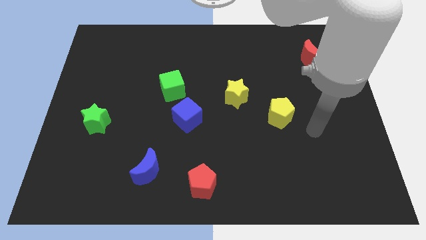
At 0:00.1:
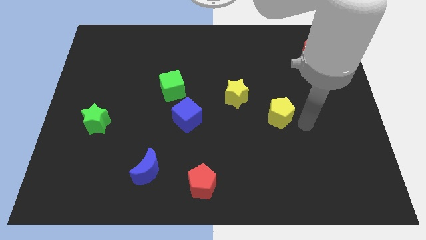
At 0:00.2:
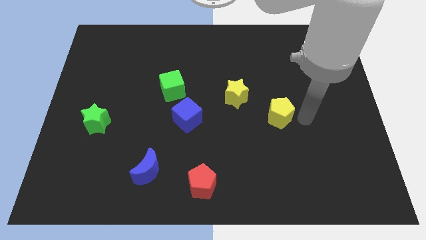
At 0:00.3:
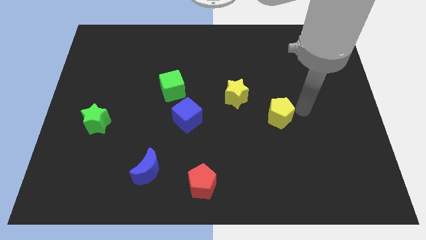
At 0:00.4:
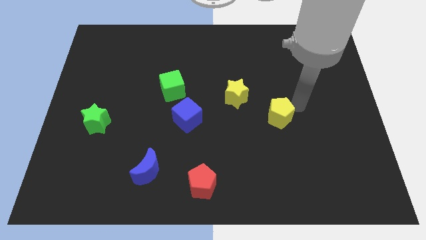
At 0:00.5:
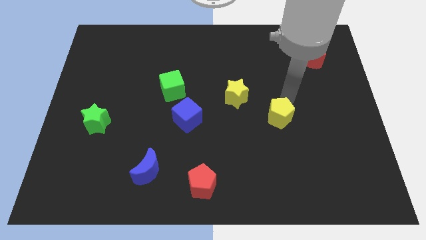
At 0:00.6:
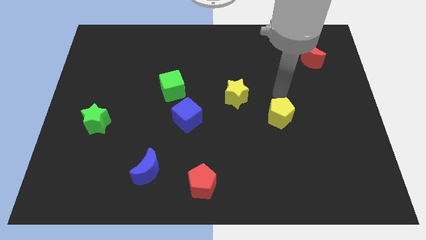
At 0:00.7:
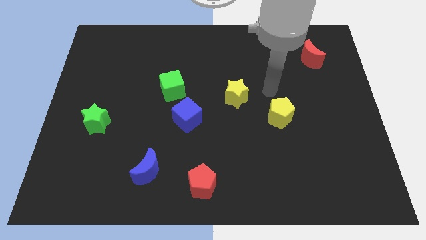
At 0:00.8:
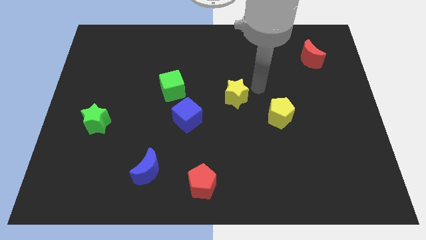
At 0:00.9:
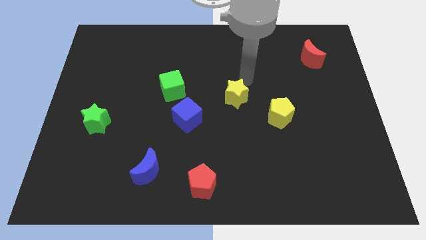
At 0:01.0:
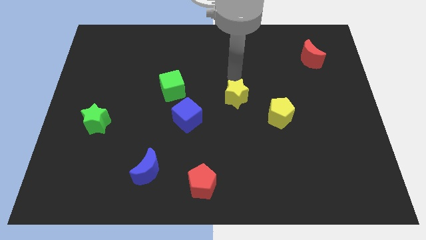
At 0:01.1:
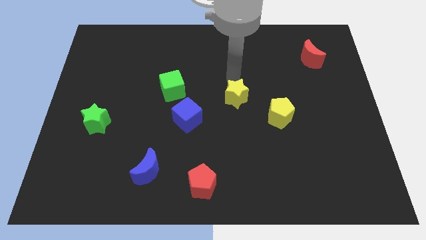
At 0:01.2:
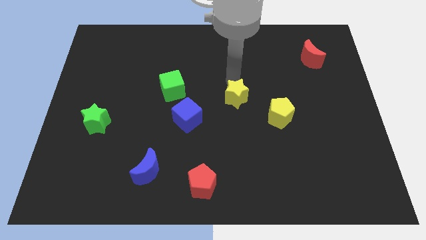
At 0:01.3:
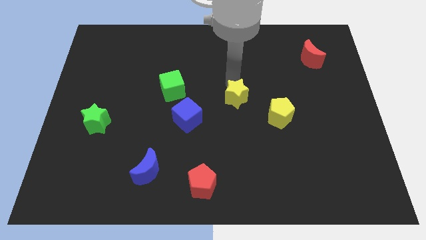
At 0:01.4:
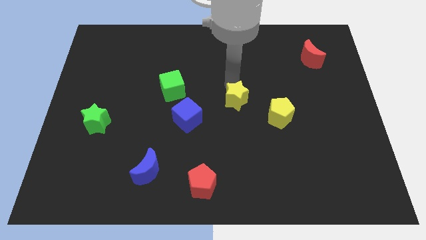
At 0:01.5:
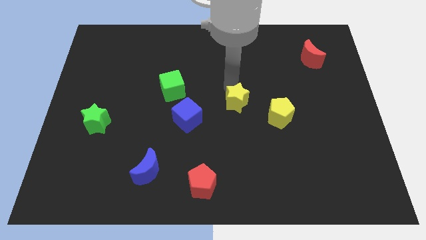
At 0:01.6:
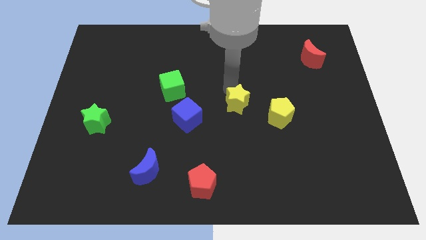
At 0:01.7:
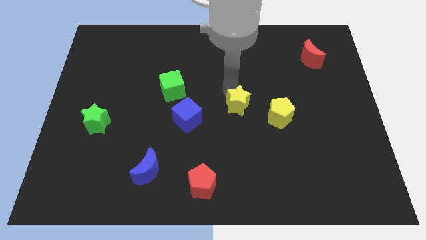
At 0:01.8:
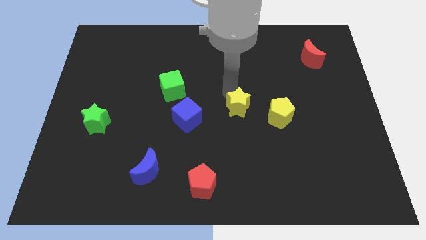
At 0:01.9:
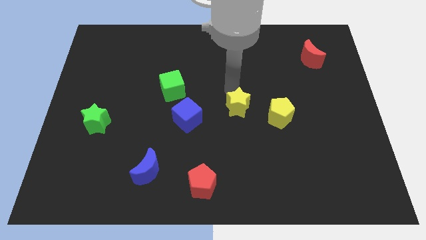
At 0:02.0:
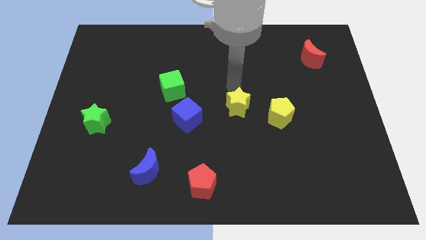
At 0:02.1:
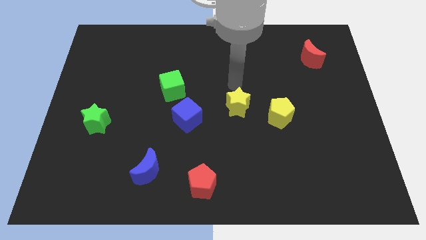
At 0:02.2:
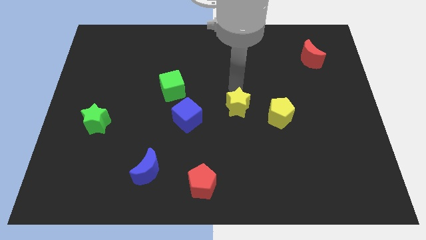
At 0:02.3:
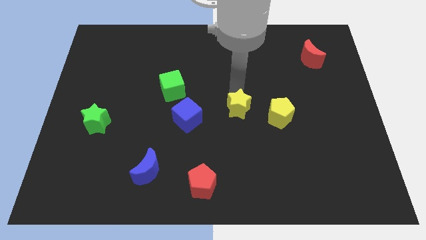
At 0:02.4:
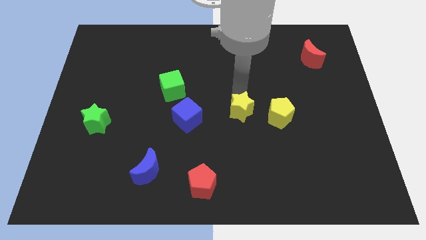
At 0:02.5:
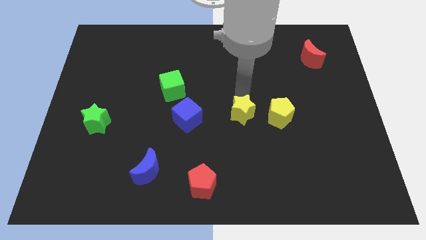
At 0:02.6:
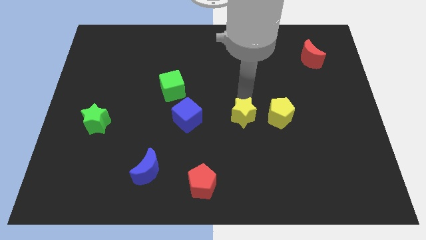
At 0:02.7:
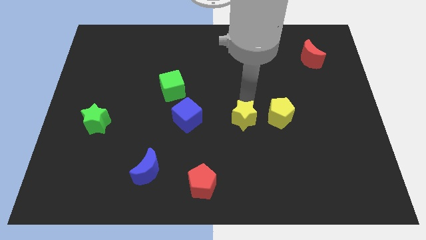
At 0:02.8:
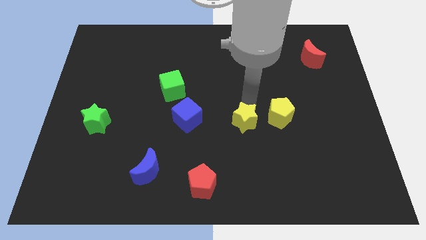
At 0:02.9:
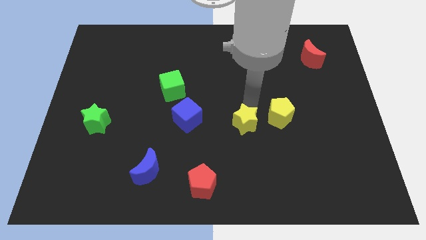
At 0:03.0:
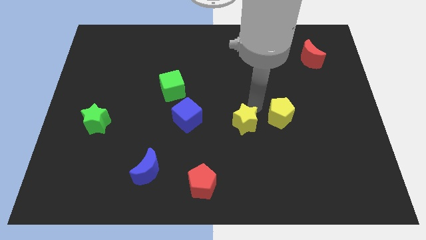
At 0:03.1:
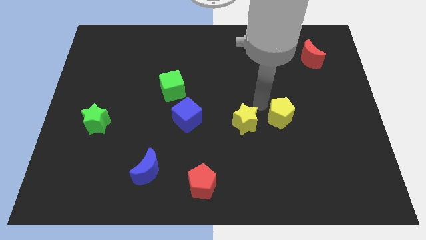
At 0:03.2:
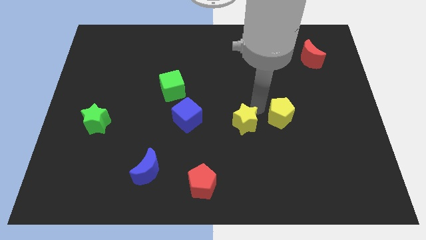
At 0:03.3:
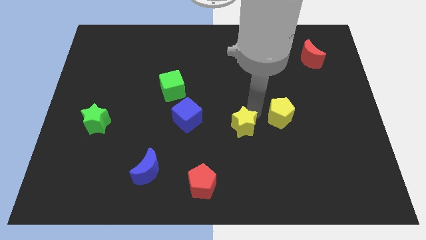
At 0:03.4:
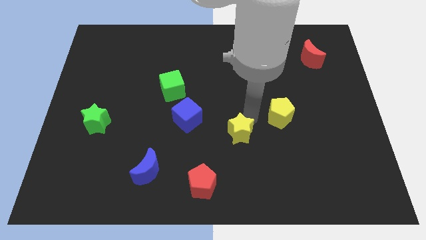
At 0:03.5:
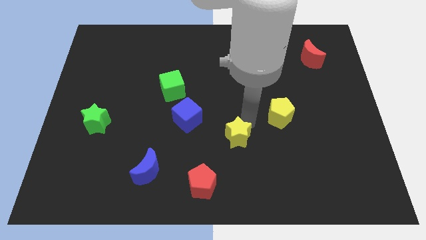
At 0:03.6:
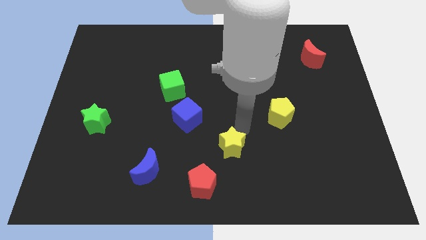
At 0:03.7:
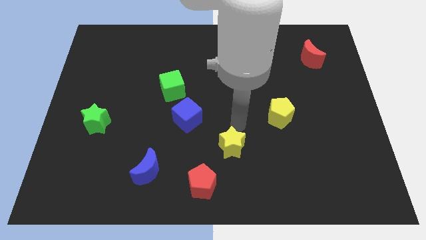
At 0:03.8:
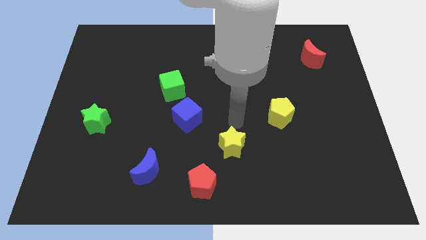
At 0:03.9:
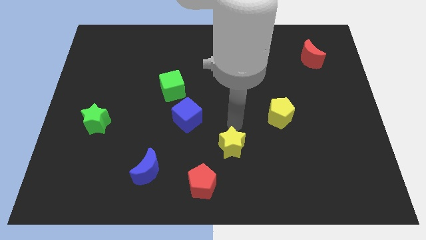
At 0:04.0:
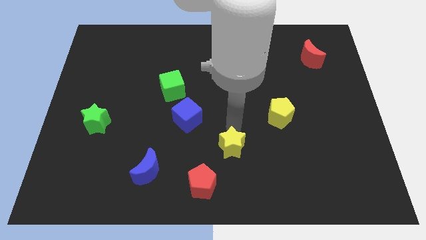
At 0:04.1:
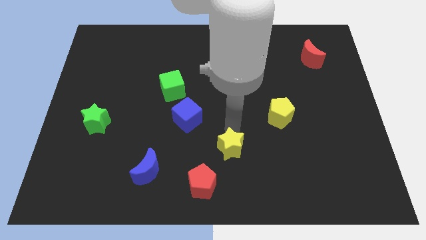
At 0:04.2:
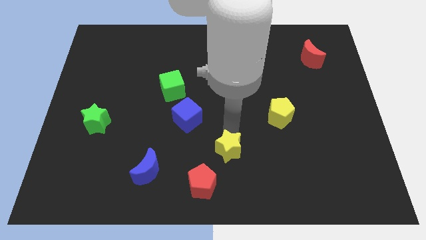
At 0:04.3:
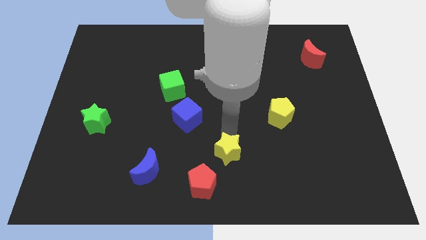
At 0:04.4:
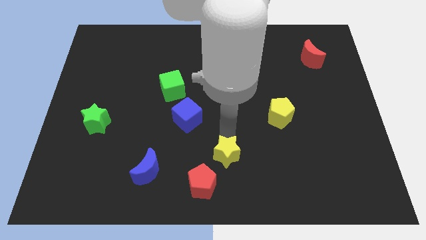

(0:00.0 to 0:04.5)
push the yellow star to the bottom side

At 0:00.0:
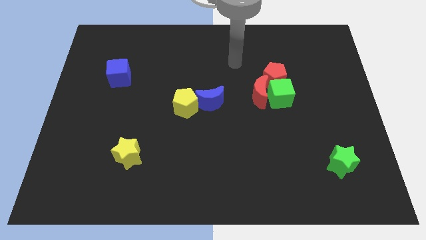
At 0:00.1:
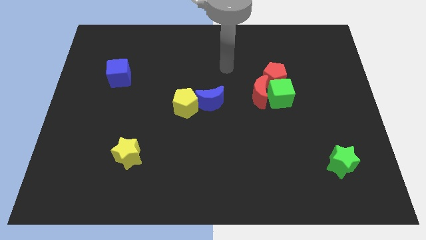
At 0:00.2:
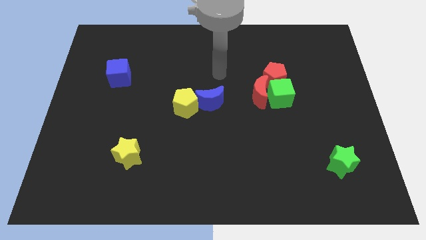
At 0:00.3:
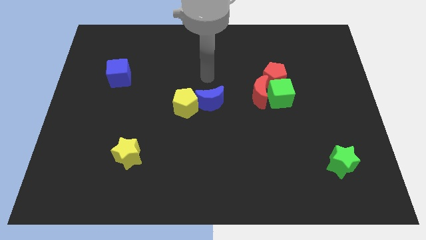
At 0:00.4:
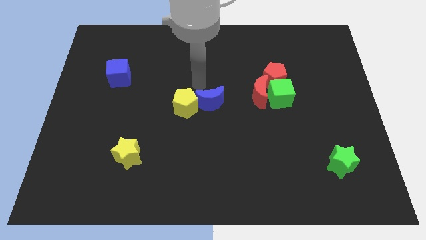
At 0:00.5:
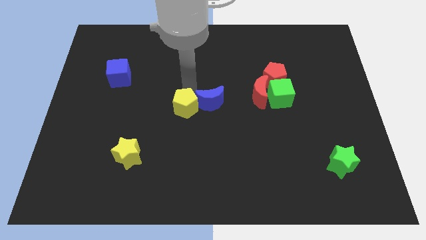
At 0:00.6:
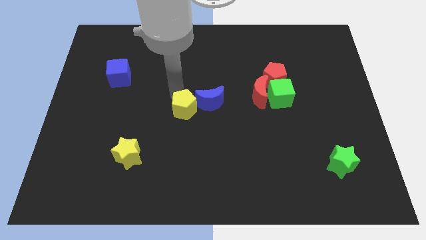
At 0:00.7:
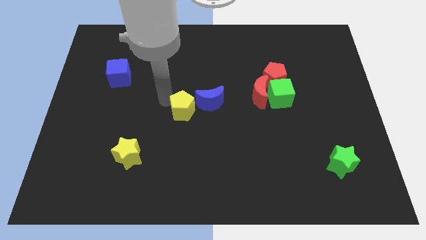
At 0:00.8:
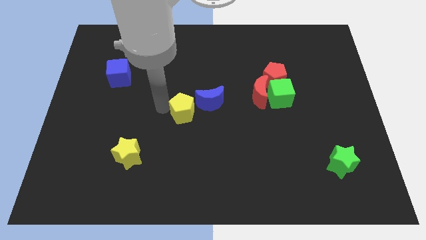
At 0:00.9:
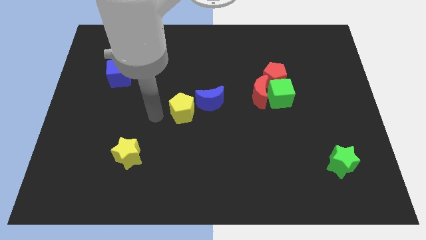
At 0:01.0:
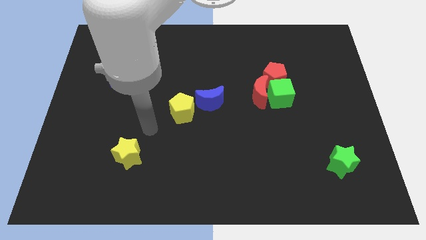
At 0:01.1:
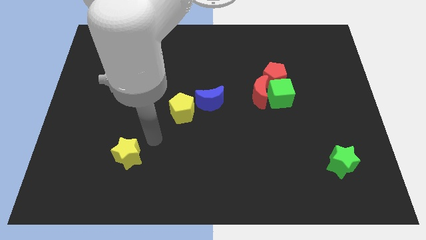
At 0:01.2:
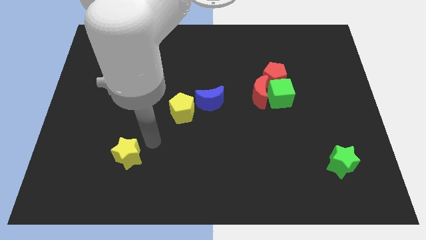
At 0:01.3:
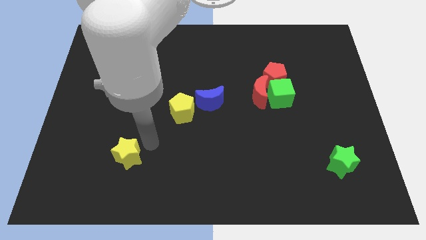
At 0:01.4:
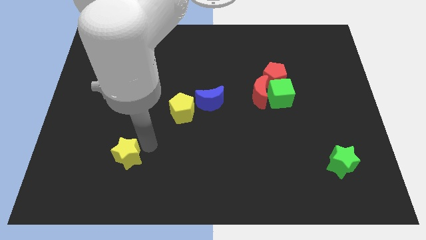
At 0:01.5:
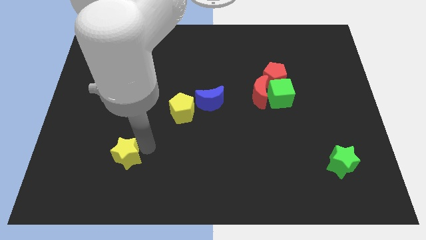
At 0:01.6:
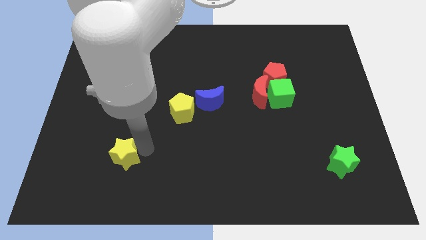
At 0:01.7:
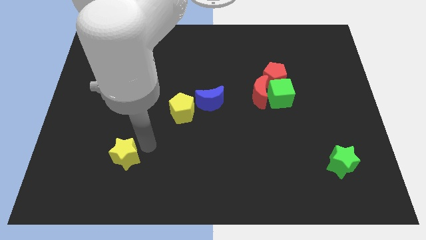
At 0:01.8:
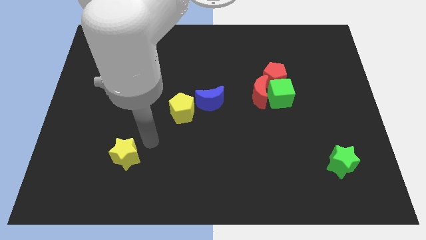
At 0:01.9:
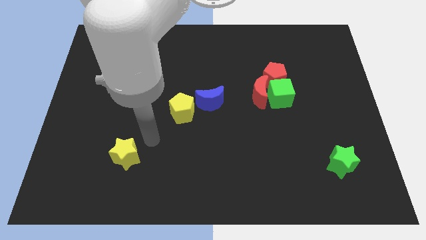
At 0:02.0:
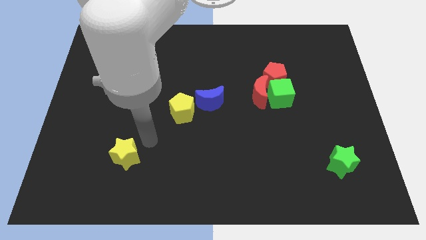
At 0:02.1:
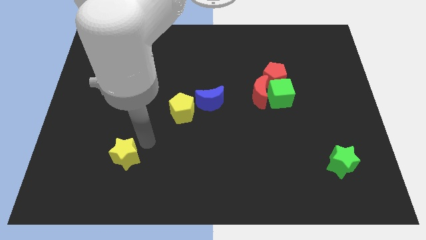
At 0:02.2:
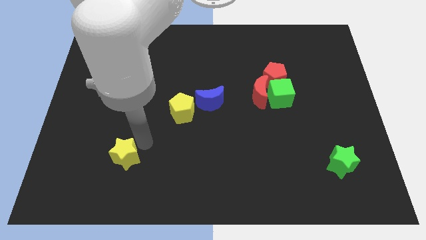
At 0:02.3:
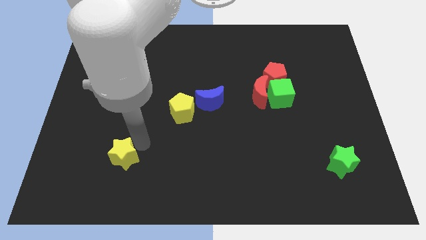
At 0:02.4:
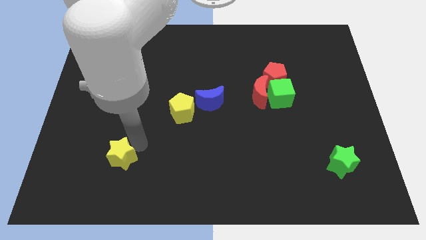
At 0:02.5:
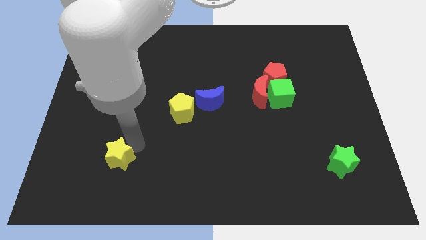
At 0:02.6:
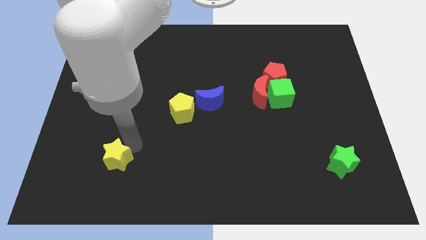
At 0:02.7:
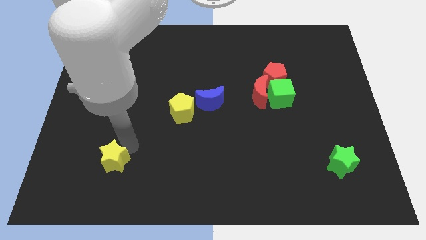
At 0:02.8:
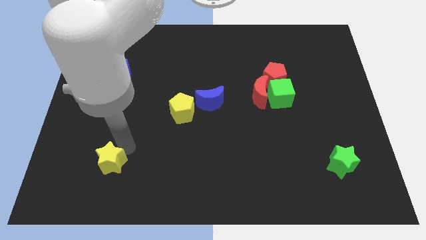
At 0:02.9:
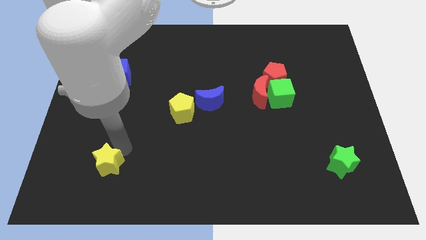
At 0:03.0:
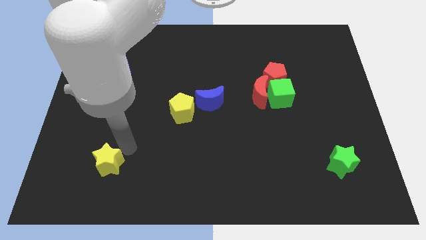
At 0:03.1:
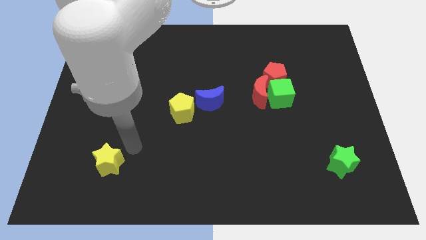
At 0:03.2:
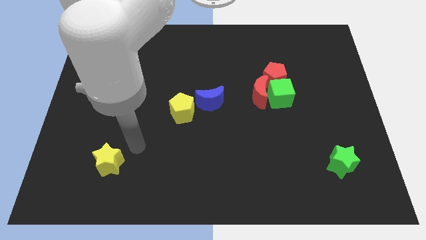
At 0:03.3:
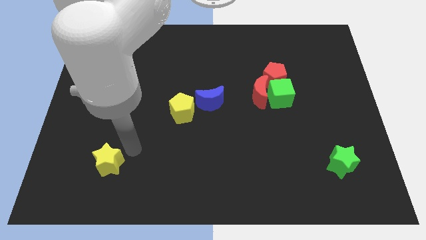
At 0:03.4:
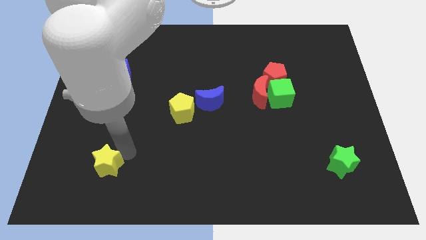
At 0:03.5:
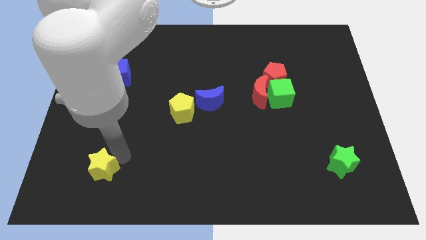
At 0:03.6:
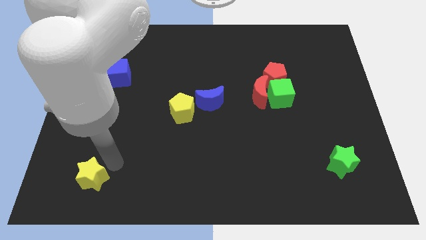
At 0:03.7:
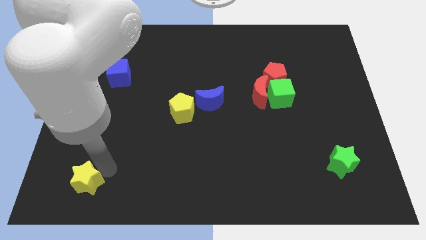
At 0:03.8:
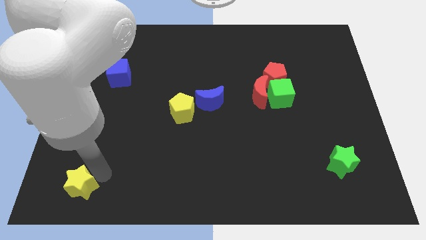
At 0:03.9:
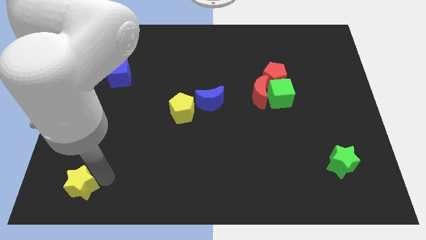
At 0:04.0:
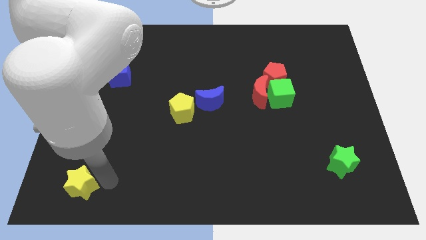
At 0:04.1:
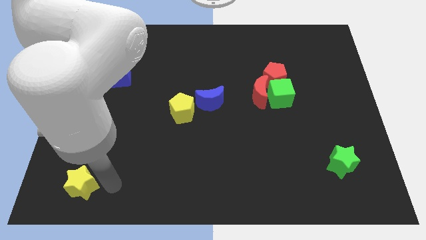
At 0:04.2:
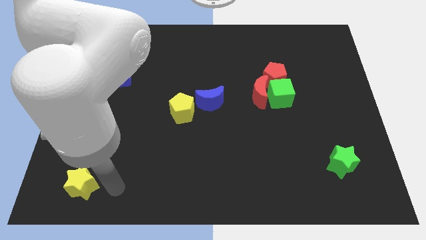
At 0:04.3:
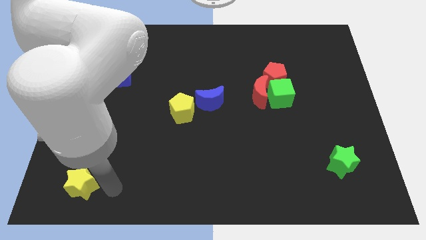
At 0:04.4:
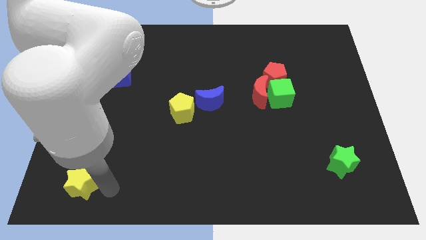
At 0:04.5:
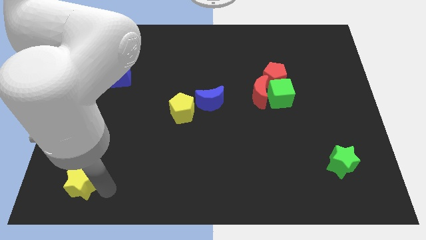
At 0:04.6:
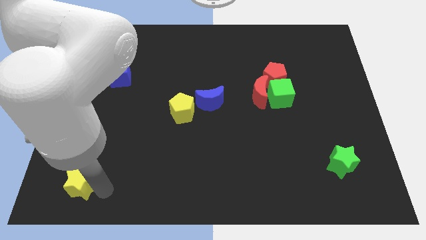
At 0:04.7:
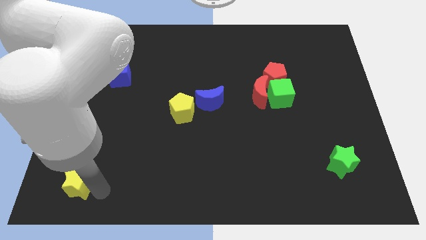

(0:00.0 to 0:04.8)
push the yellow star to the lower left corner
